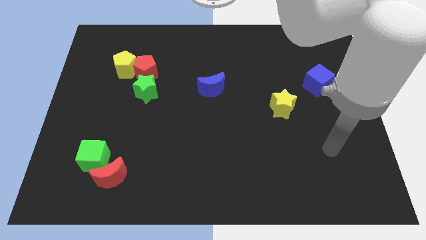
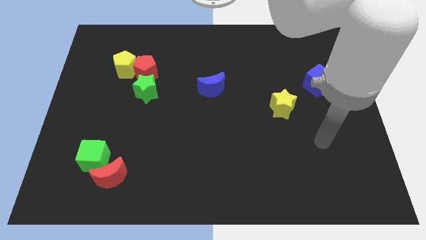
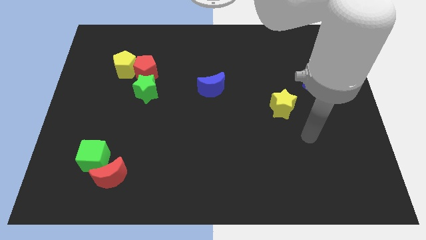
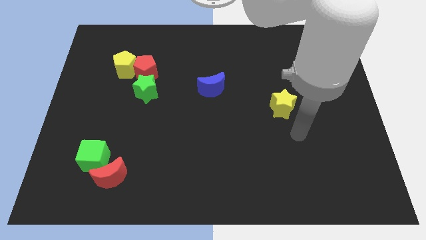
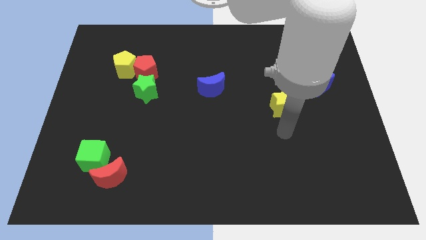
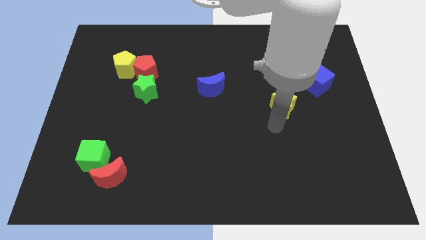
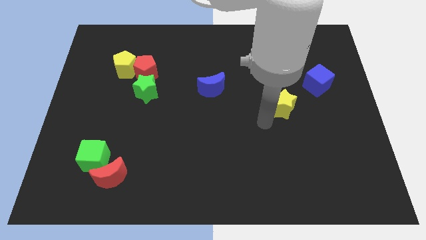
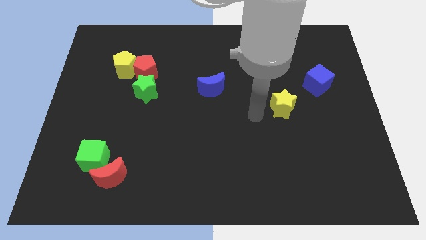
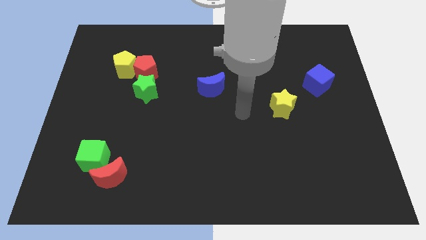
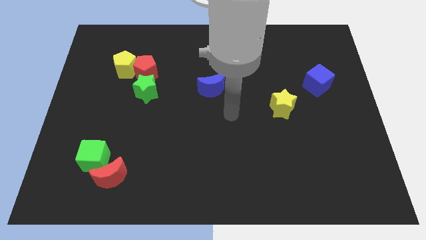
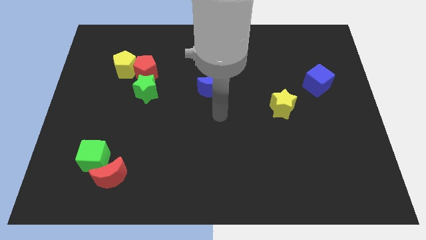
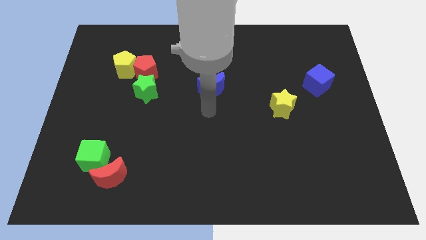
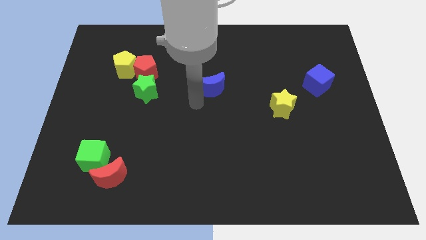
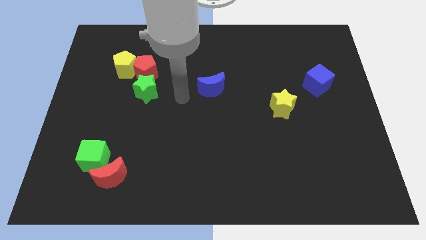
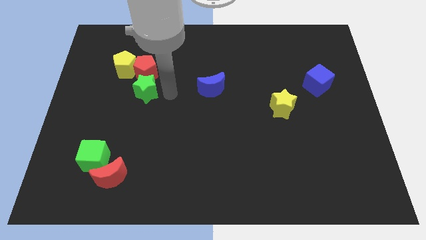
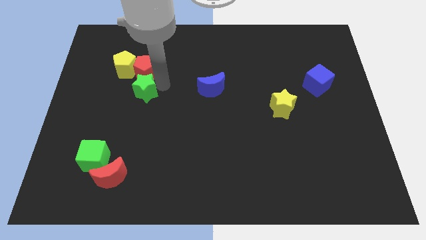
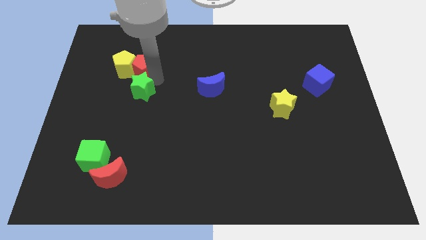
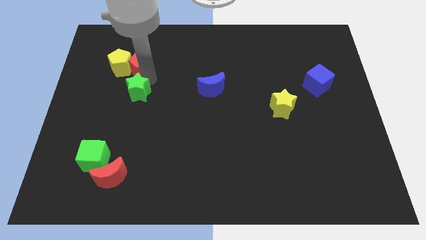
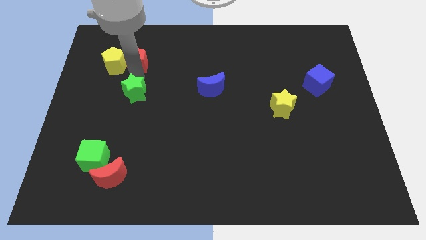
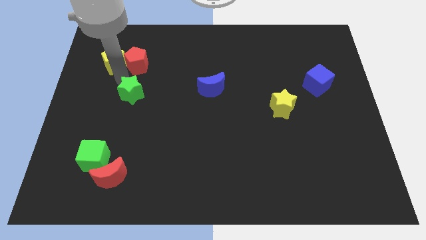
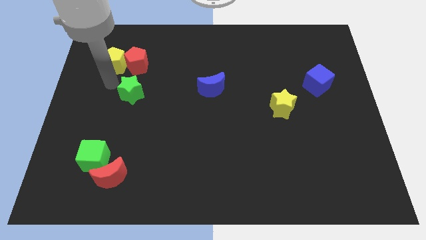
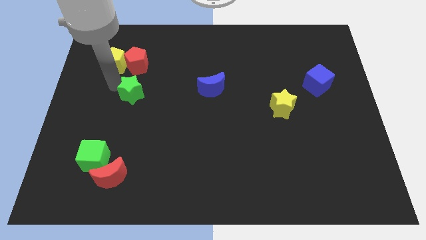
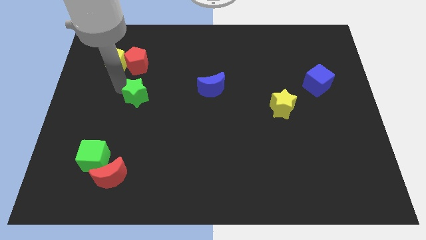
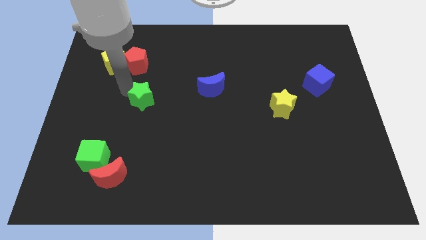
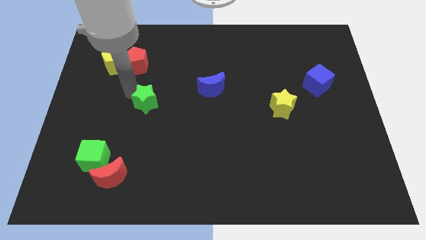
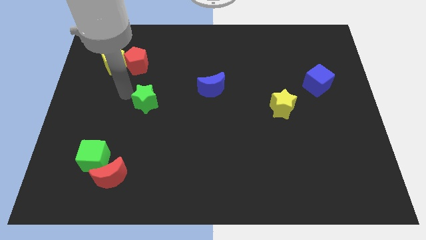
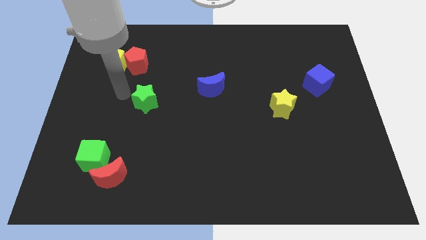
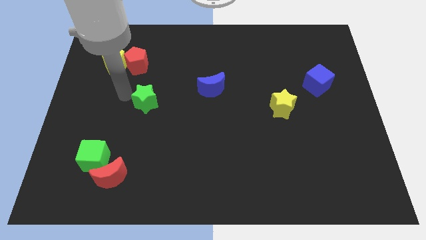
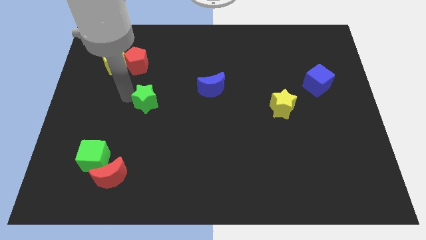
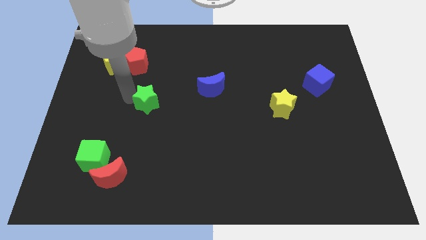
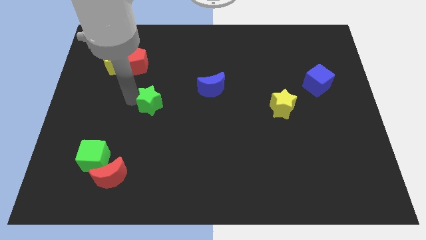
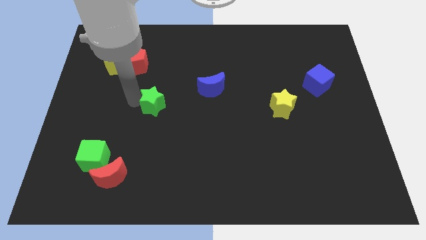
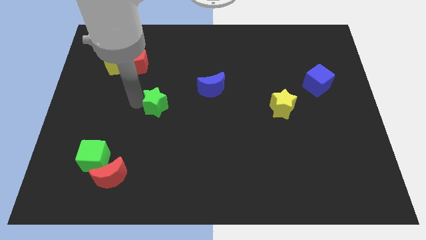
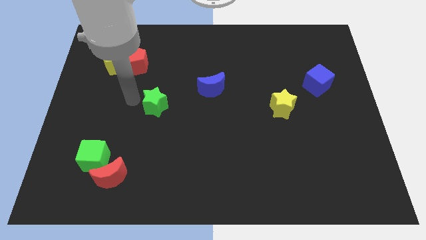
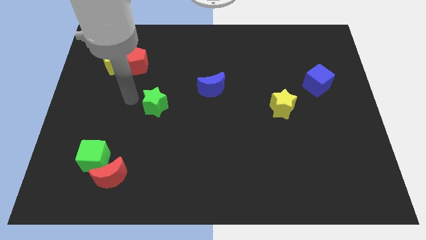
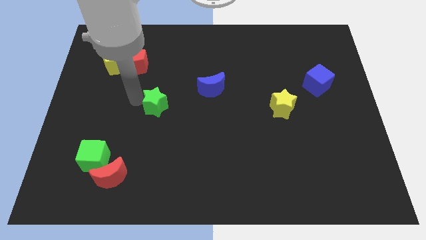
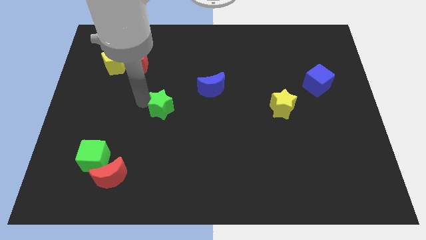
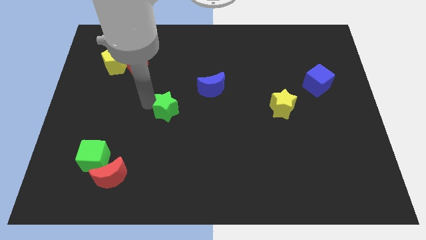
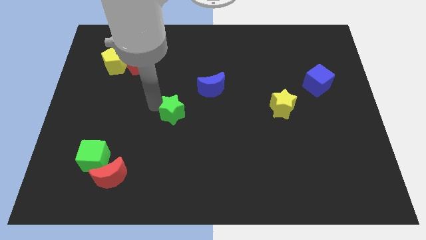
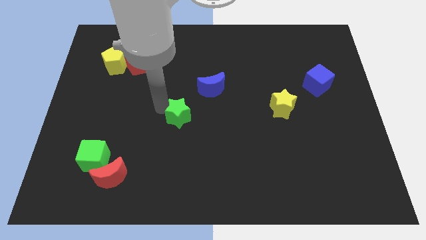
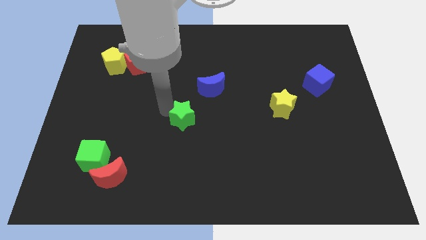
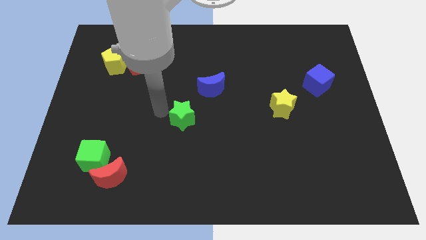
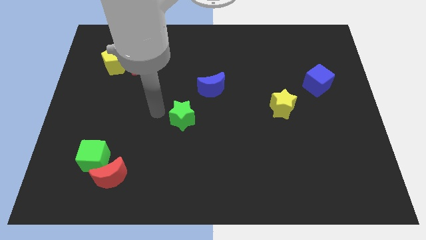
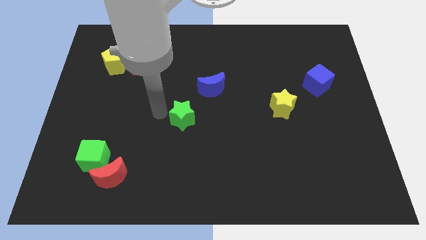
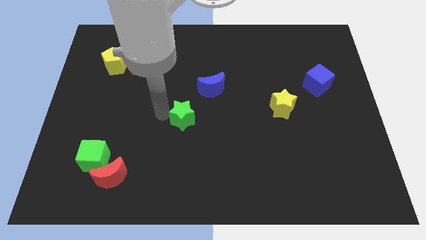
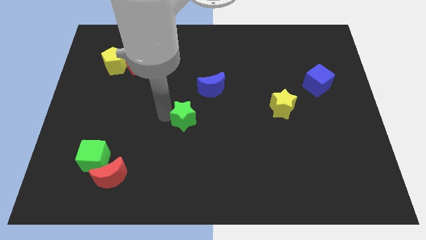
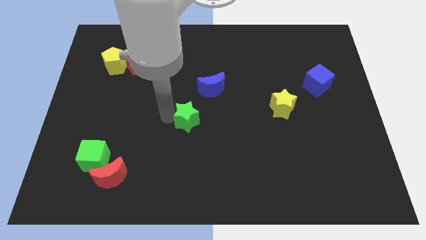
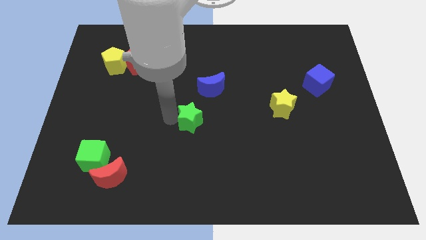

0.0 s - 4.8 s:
slide the green star below the blue moon

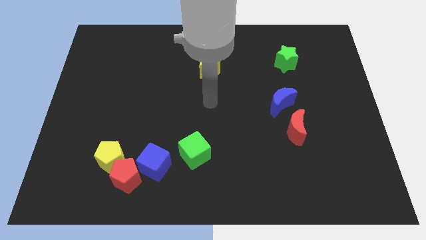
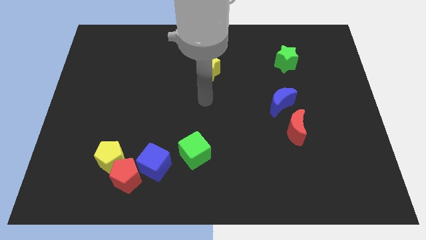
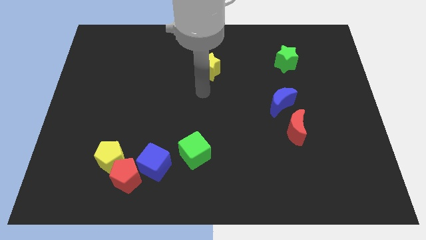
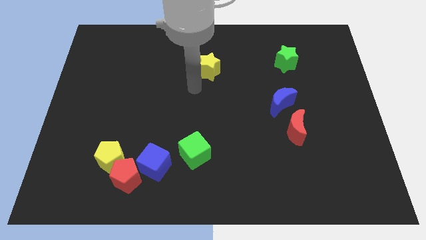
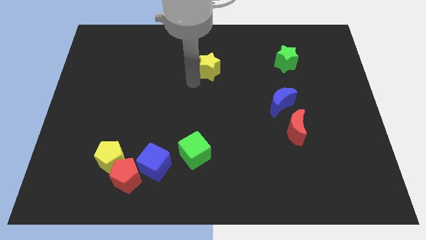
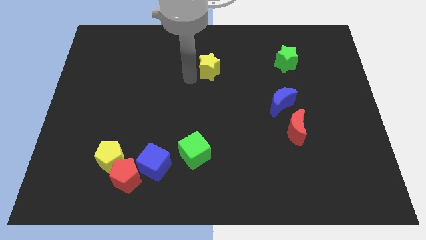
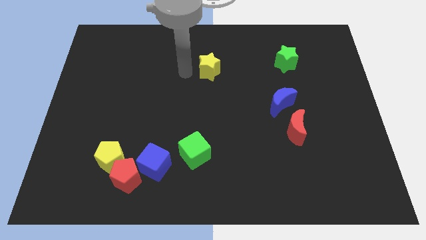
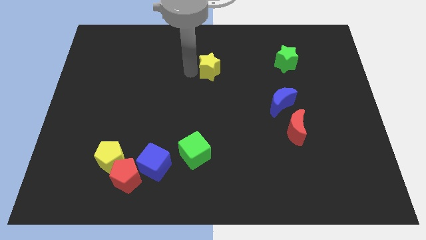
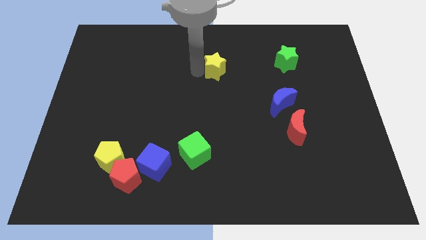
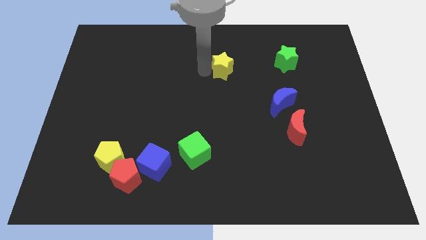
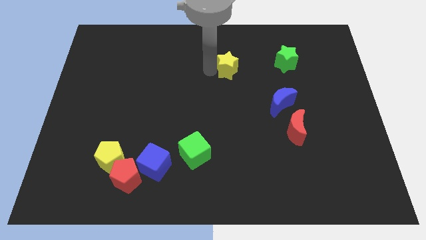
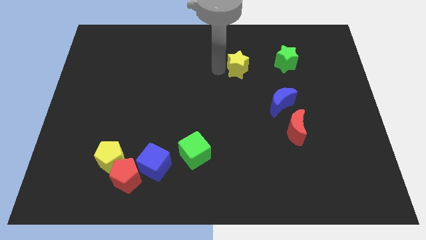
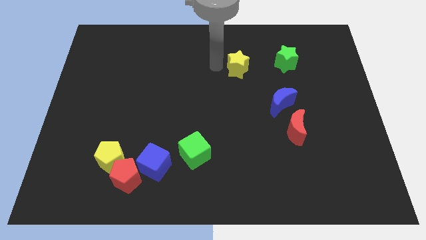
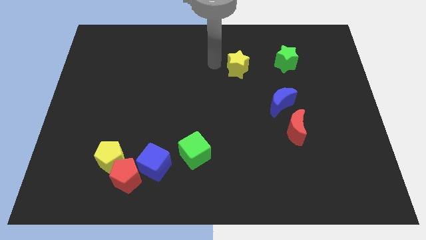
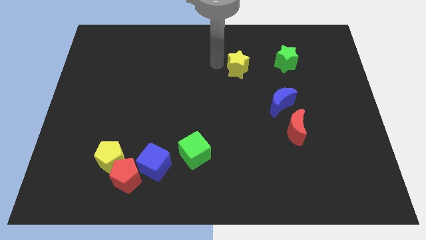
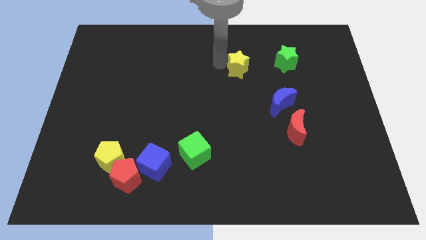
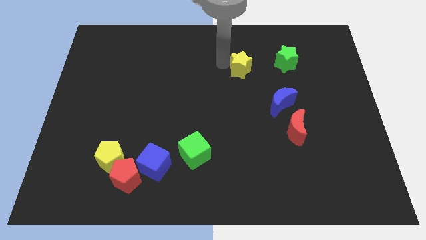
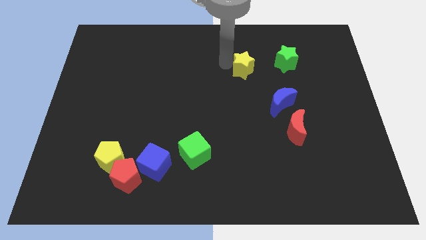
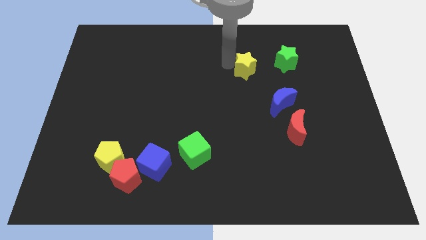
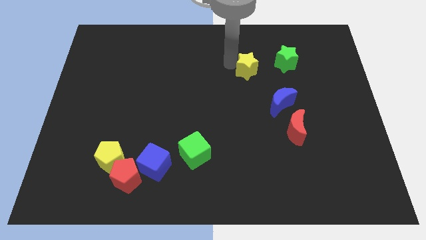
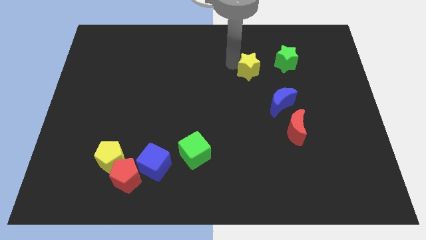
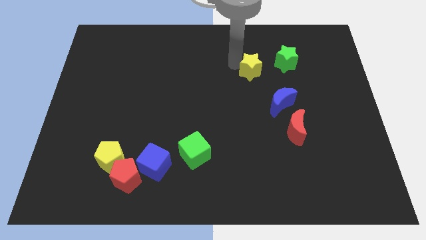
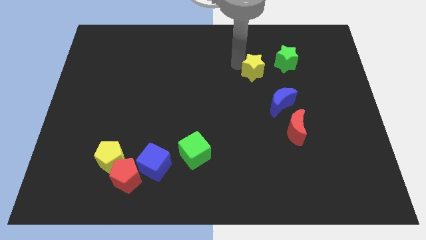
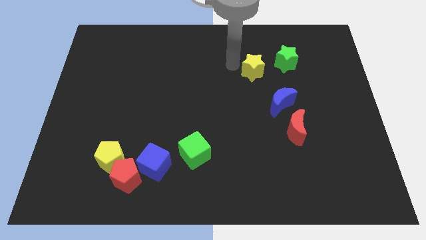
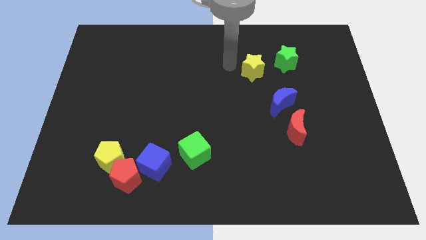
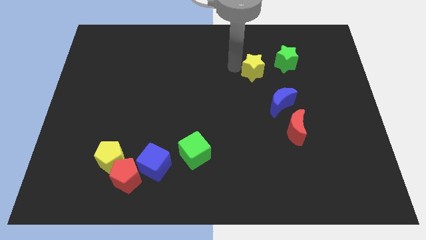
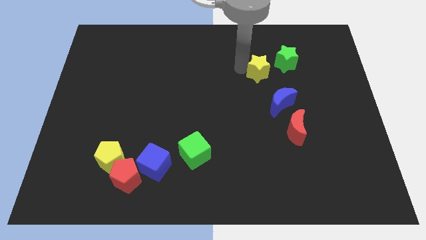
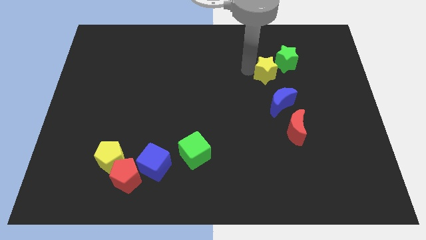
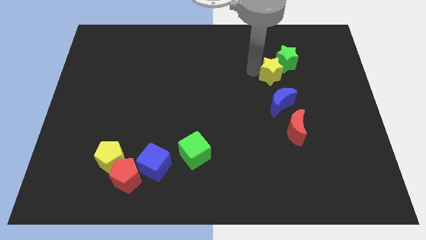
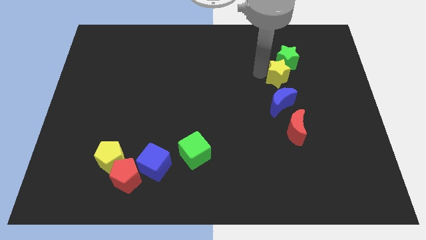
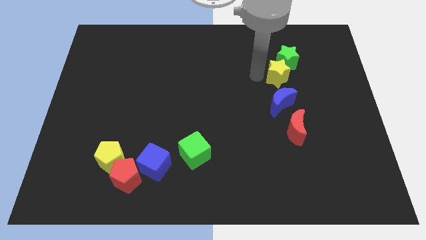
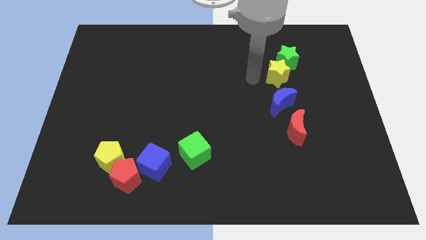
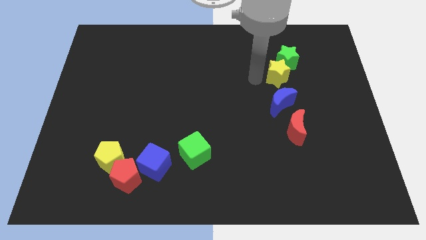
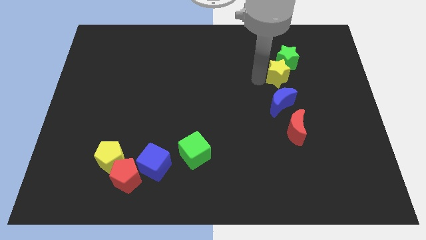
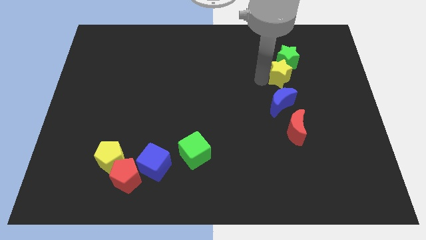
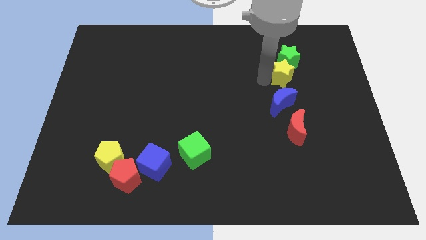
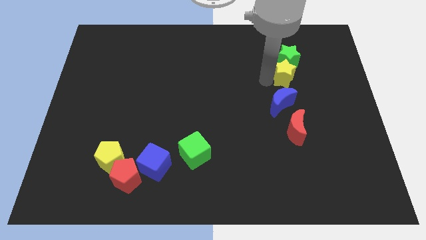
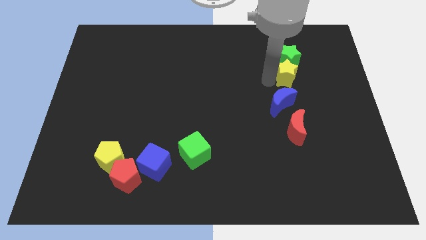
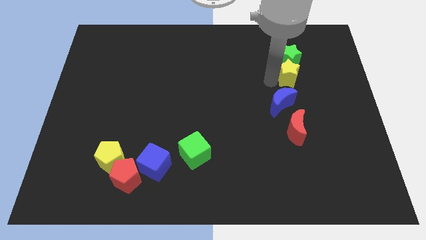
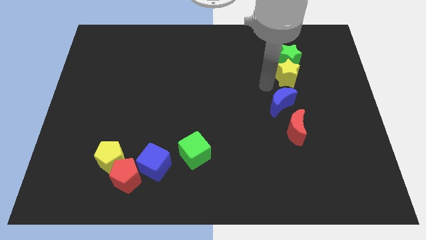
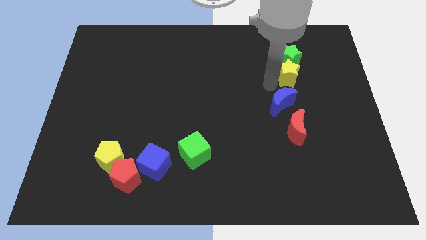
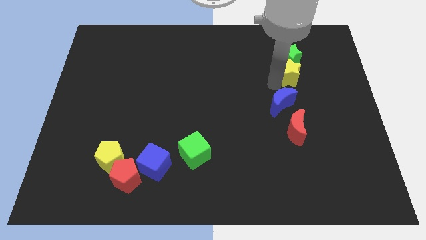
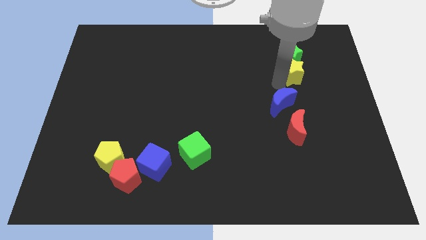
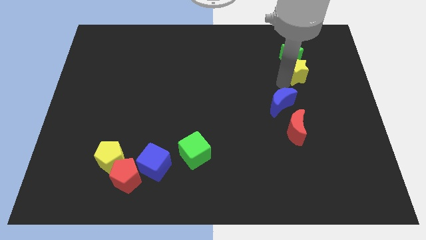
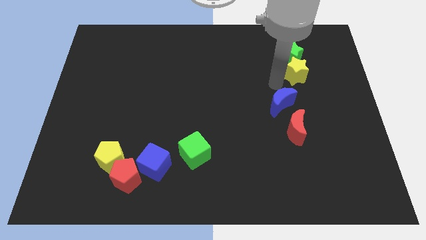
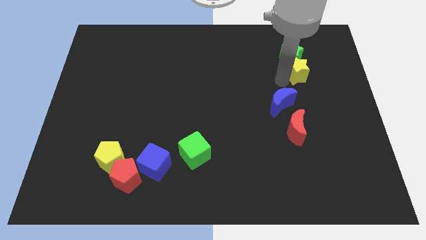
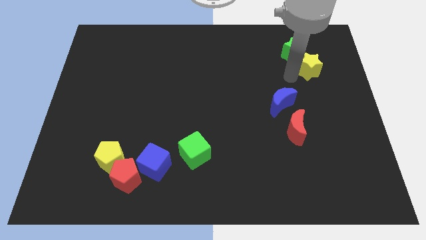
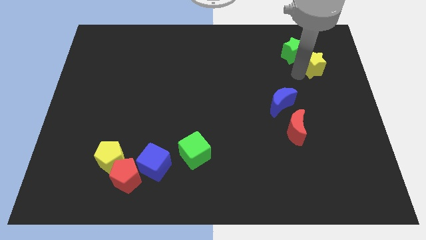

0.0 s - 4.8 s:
put the yellow star right of the green star
